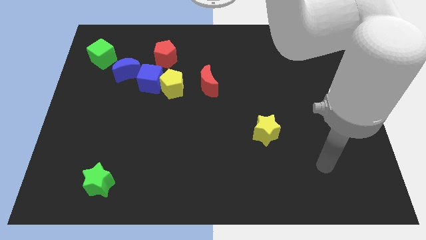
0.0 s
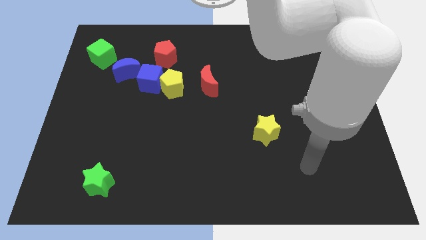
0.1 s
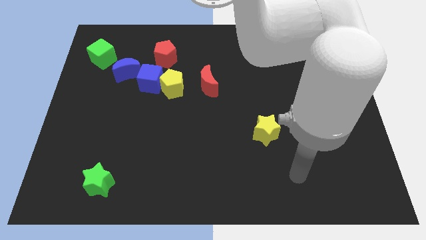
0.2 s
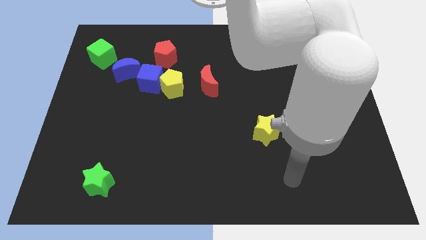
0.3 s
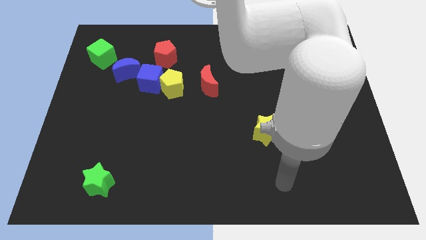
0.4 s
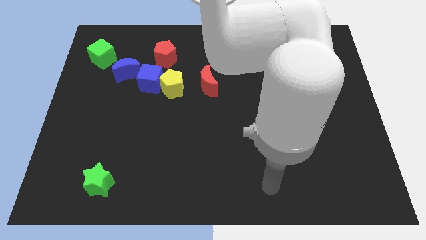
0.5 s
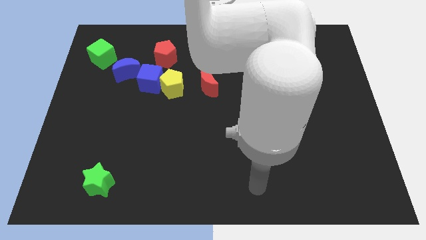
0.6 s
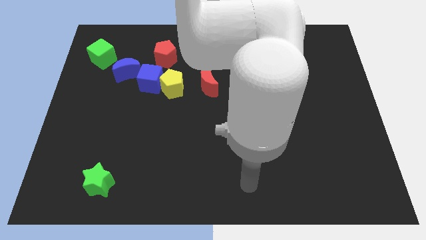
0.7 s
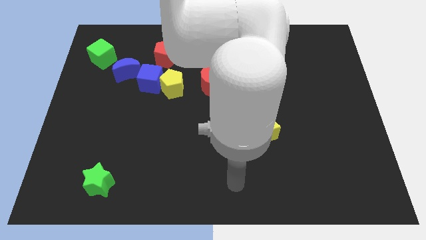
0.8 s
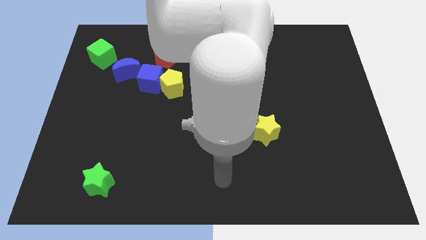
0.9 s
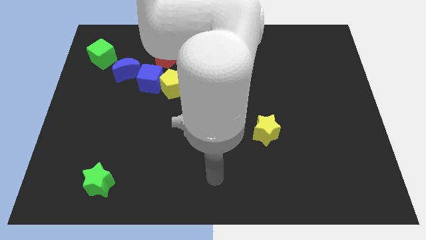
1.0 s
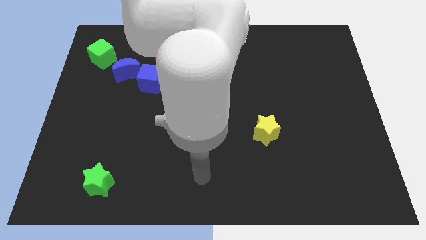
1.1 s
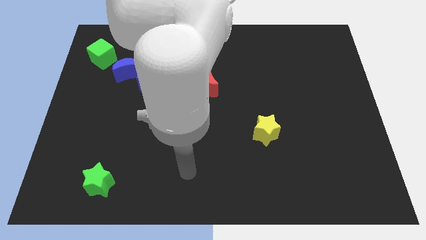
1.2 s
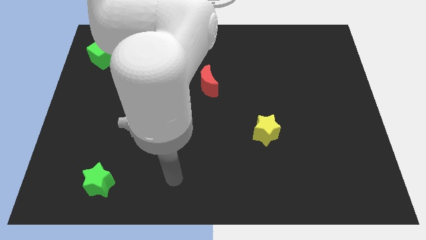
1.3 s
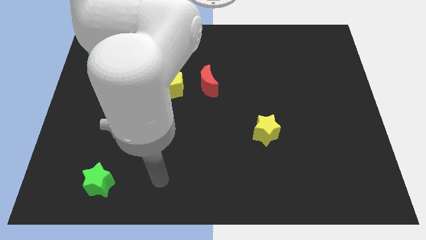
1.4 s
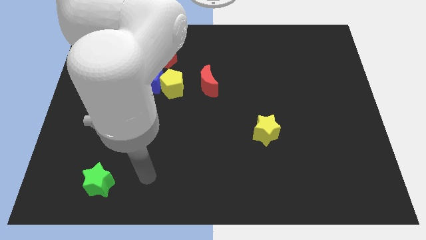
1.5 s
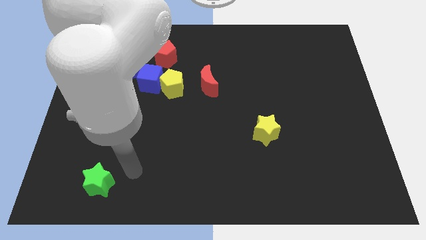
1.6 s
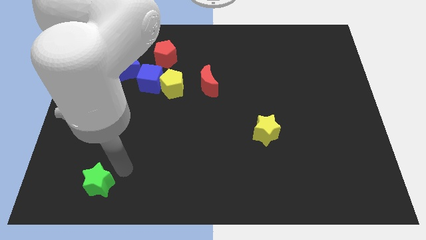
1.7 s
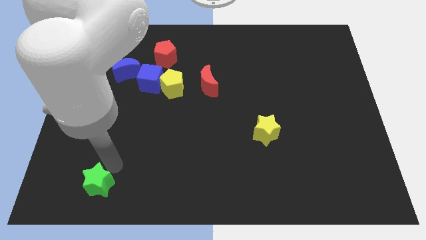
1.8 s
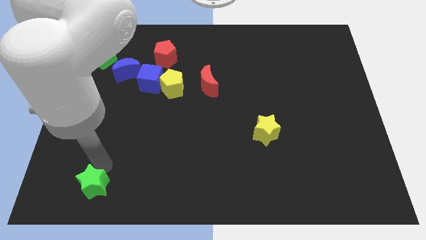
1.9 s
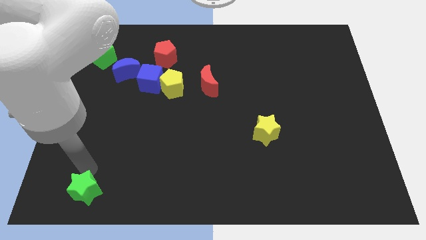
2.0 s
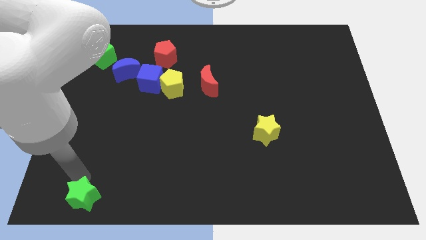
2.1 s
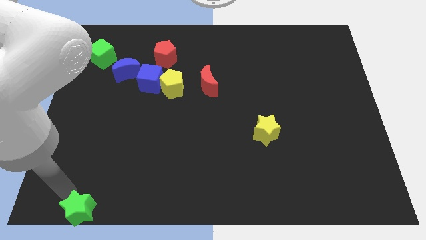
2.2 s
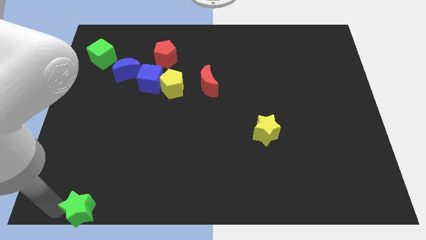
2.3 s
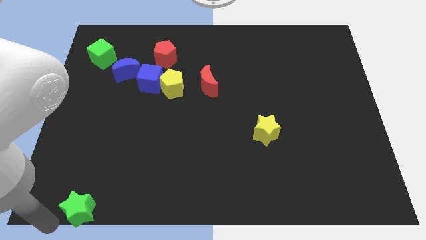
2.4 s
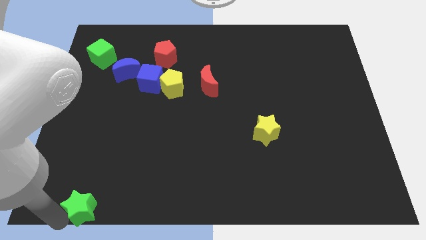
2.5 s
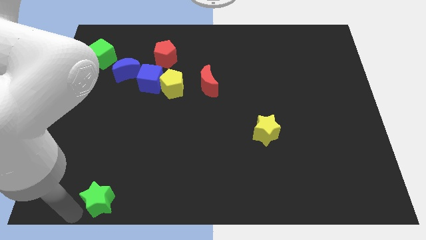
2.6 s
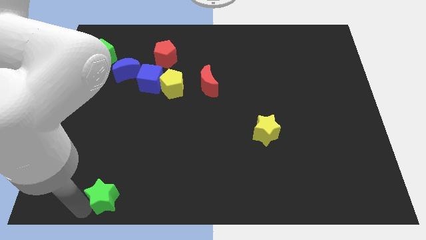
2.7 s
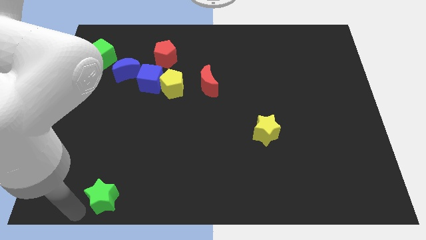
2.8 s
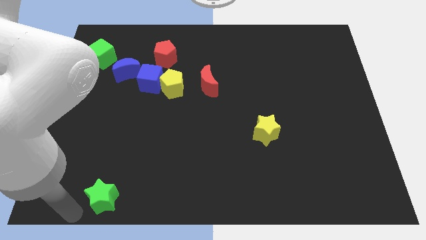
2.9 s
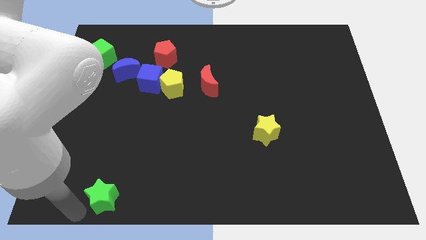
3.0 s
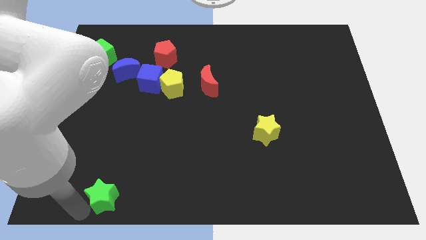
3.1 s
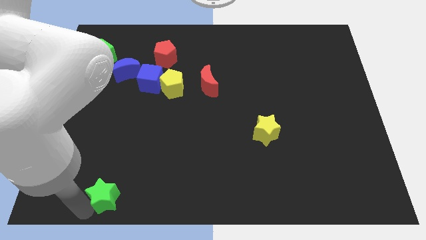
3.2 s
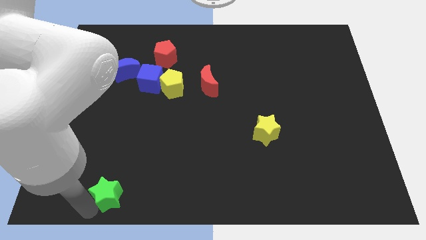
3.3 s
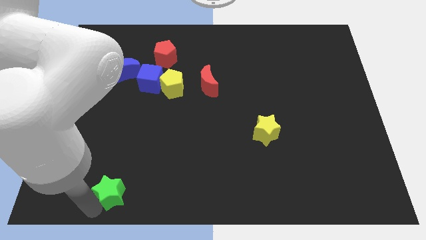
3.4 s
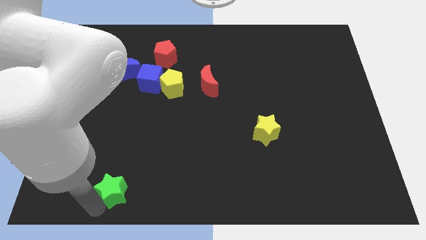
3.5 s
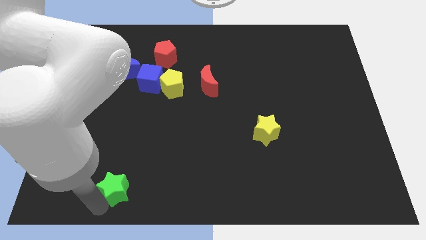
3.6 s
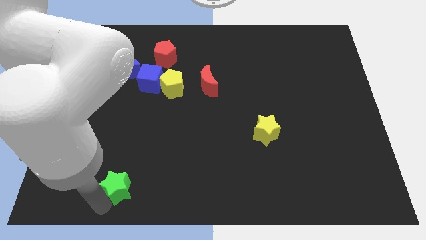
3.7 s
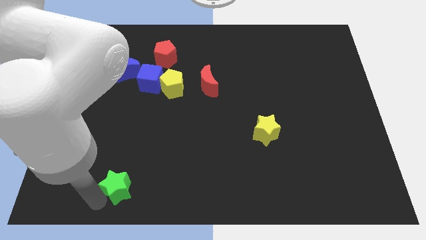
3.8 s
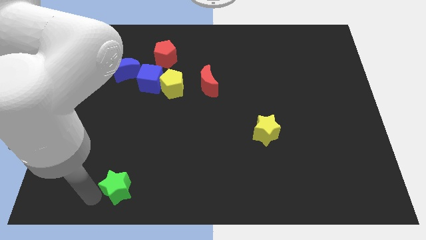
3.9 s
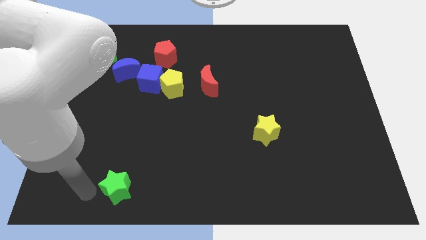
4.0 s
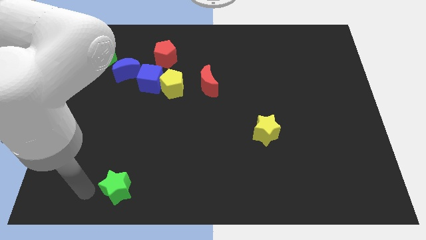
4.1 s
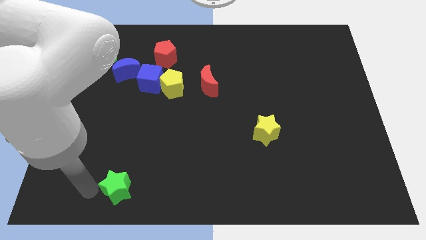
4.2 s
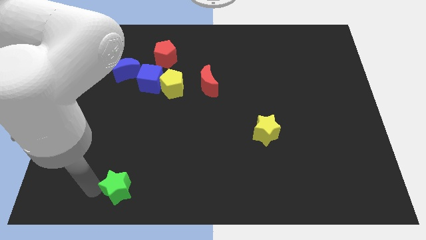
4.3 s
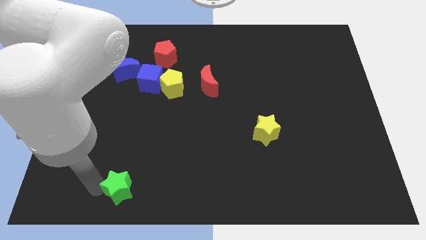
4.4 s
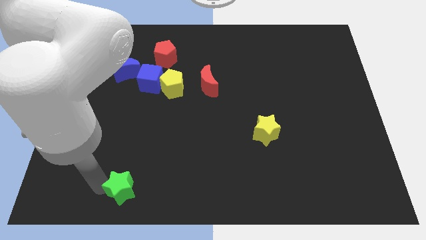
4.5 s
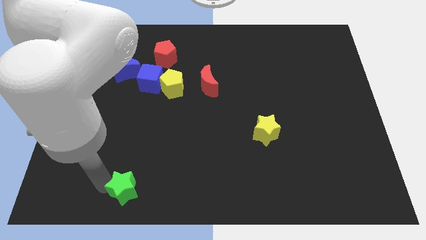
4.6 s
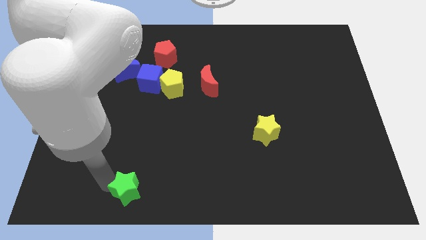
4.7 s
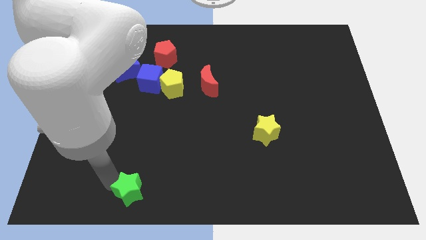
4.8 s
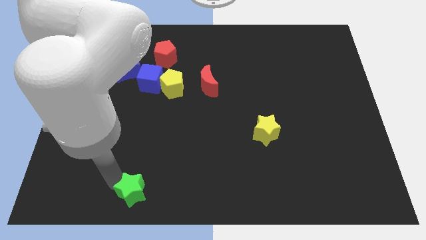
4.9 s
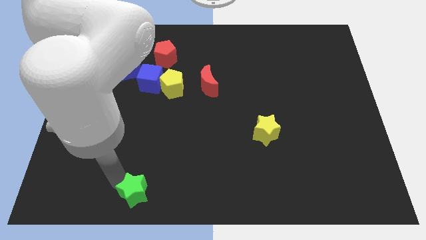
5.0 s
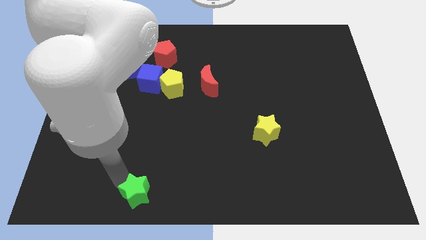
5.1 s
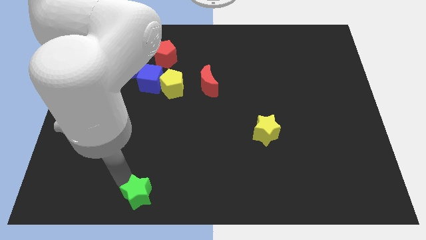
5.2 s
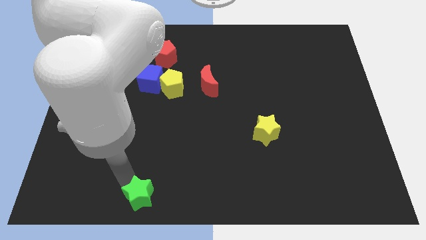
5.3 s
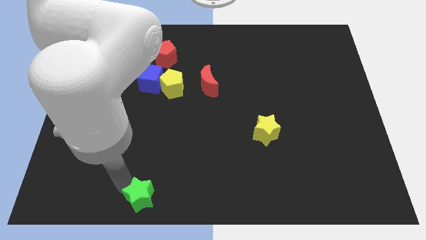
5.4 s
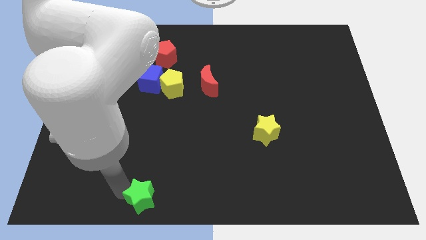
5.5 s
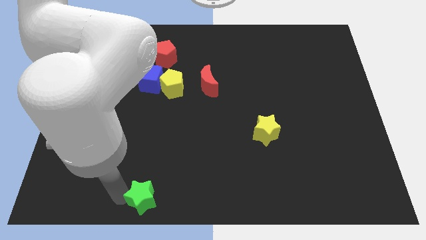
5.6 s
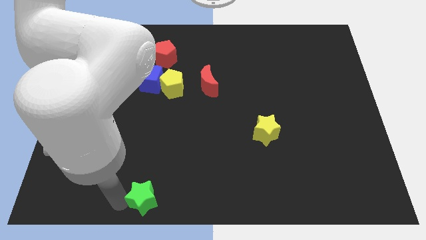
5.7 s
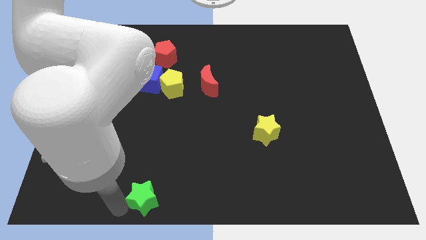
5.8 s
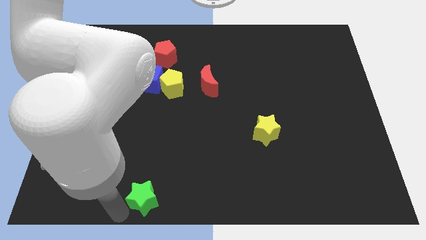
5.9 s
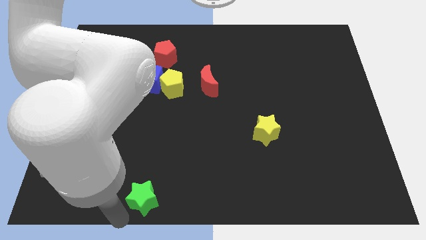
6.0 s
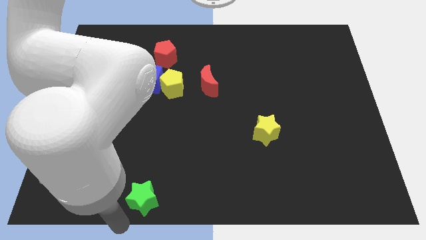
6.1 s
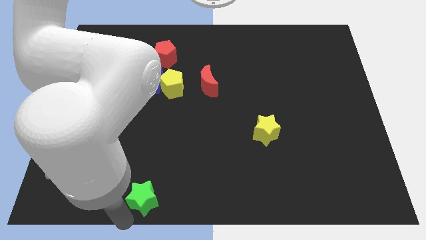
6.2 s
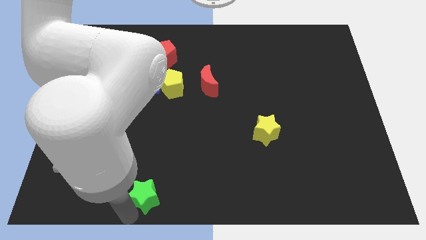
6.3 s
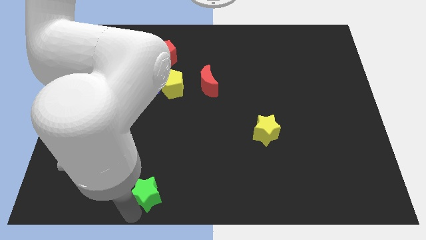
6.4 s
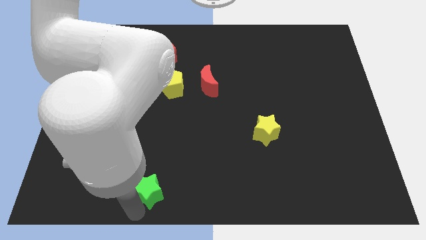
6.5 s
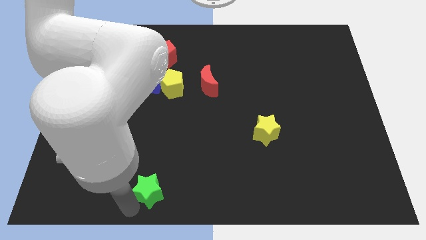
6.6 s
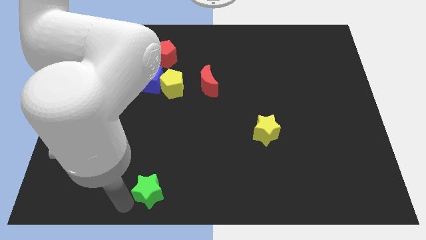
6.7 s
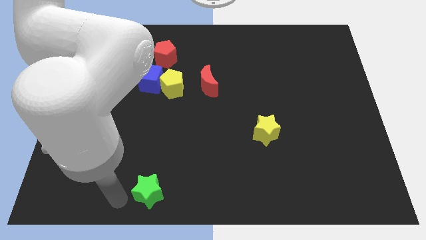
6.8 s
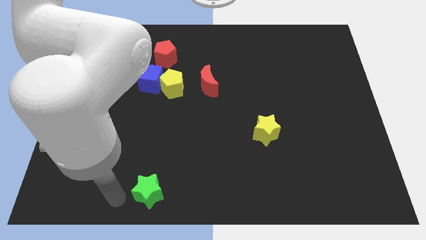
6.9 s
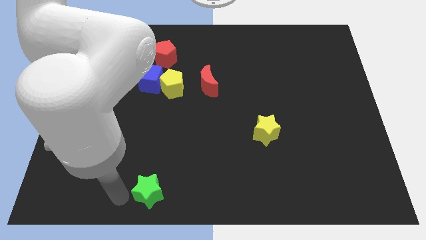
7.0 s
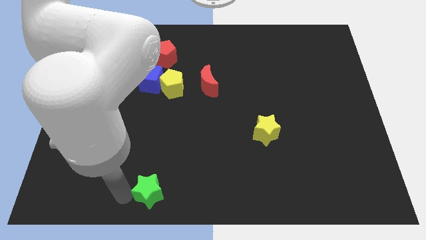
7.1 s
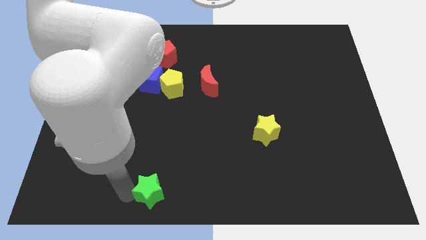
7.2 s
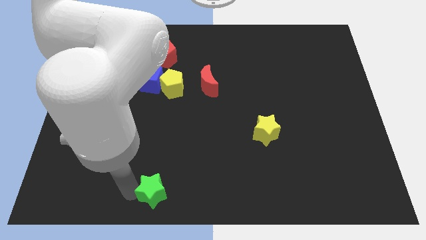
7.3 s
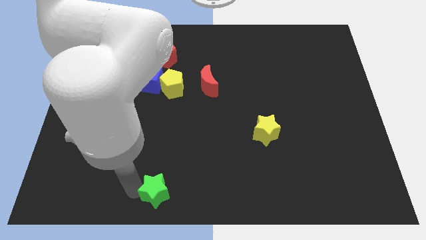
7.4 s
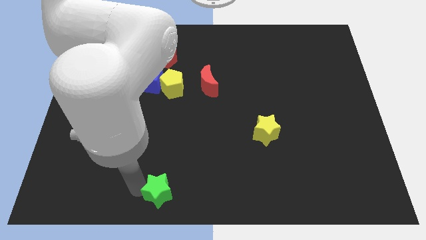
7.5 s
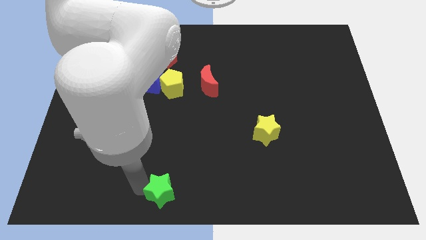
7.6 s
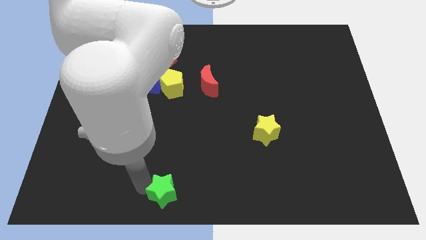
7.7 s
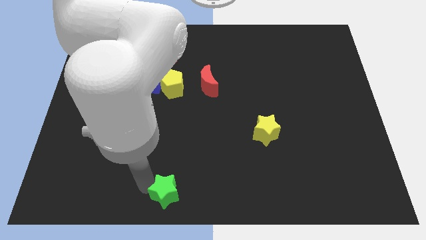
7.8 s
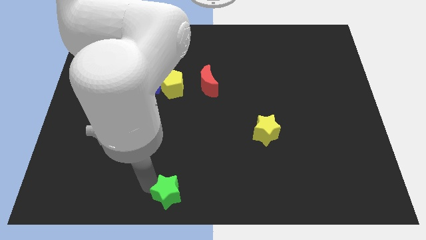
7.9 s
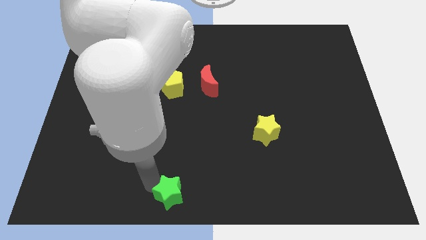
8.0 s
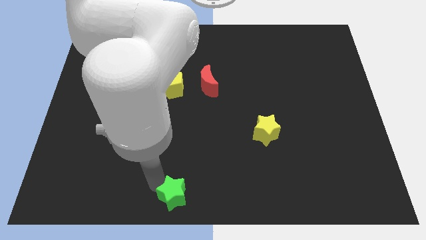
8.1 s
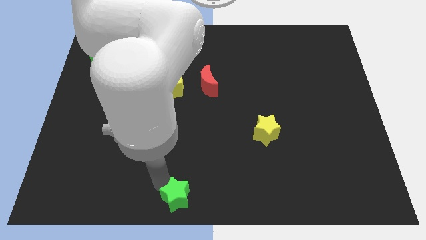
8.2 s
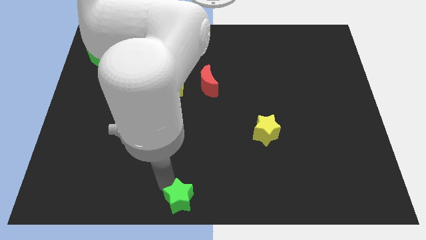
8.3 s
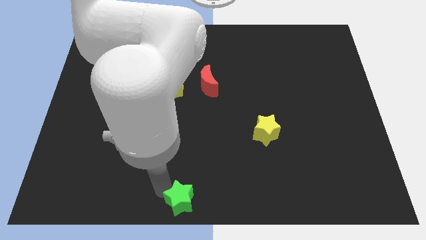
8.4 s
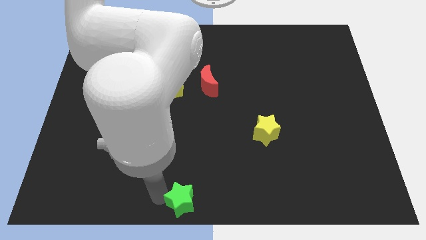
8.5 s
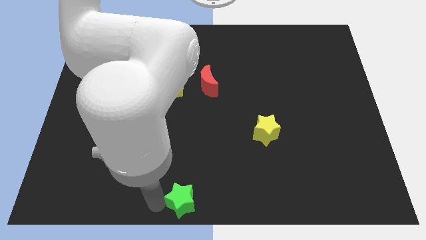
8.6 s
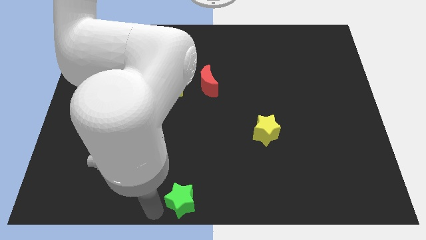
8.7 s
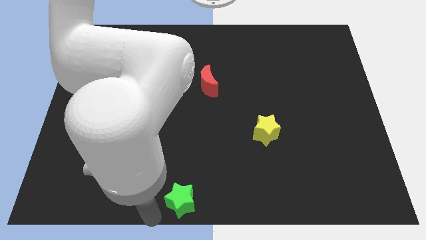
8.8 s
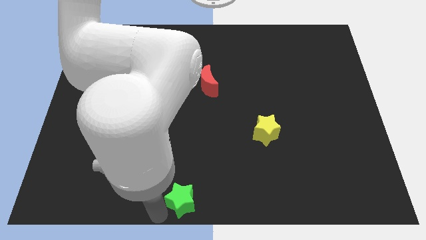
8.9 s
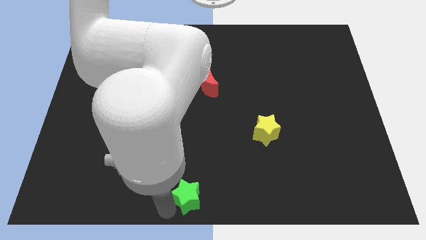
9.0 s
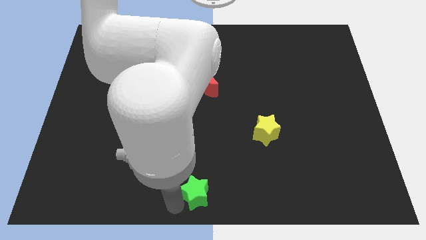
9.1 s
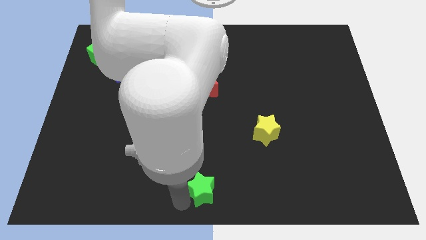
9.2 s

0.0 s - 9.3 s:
push the green star to the right
